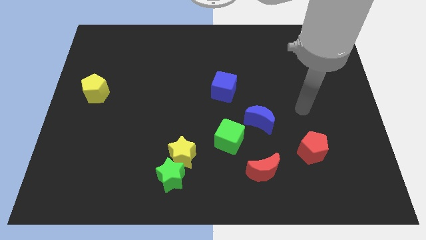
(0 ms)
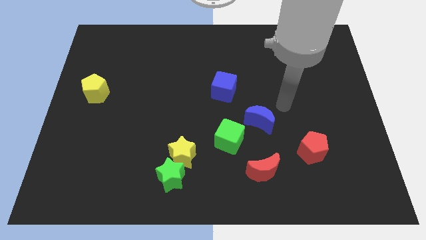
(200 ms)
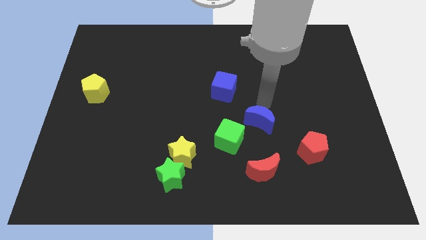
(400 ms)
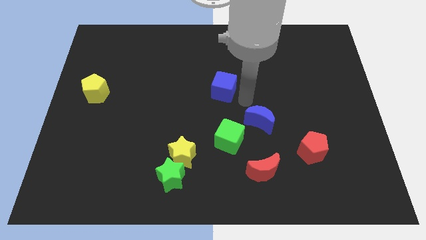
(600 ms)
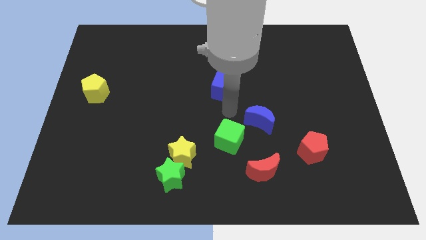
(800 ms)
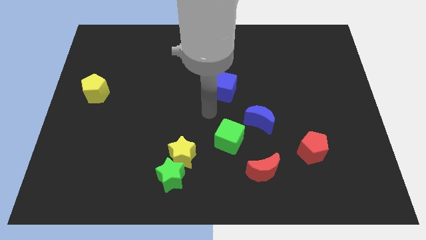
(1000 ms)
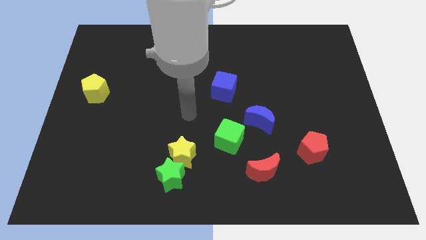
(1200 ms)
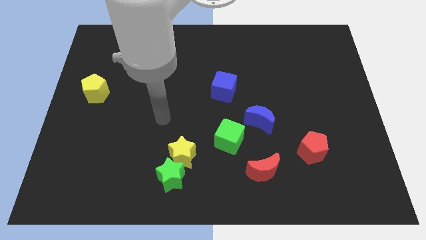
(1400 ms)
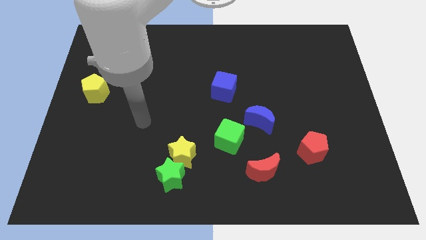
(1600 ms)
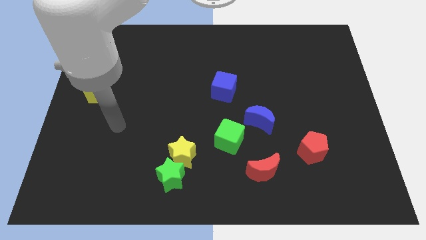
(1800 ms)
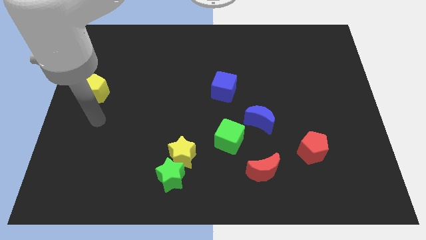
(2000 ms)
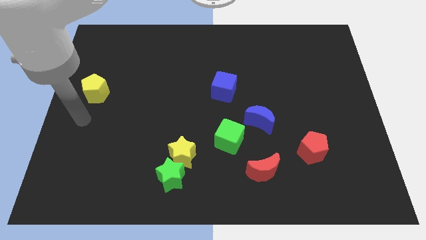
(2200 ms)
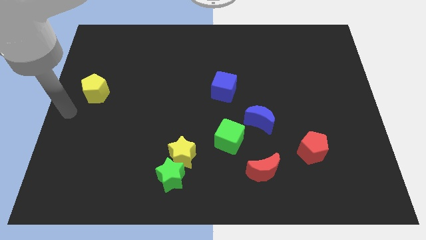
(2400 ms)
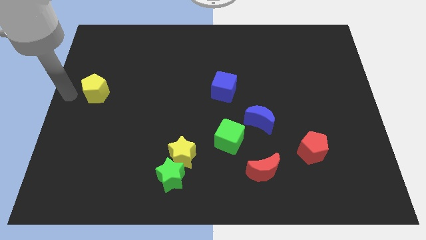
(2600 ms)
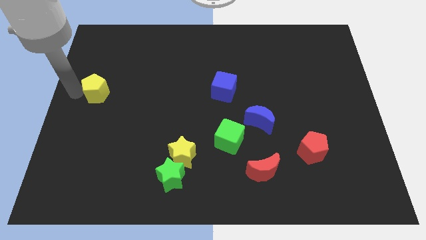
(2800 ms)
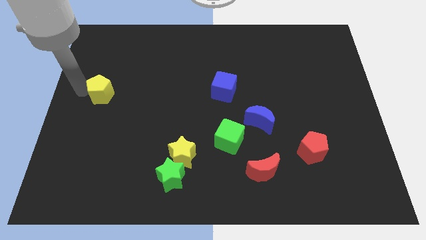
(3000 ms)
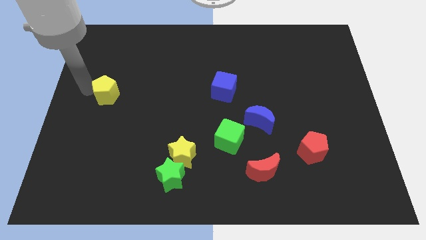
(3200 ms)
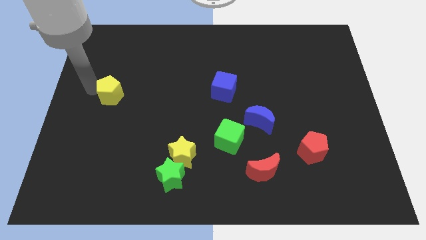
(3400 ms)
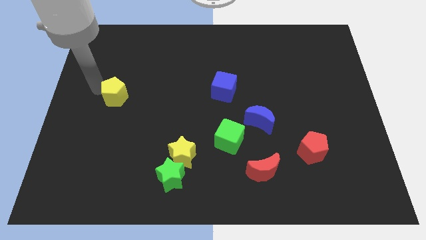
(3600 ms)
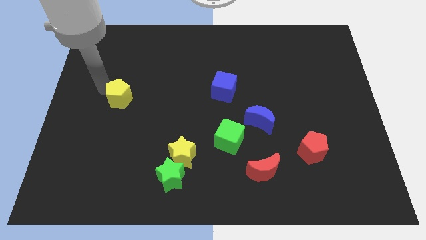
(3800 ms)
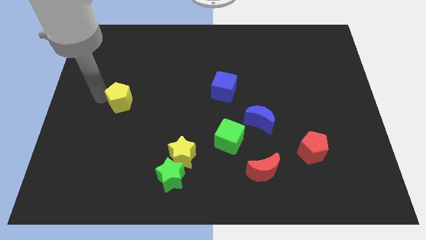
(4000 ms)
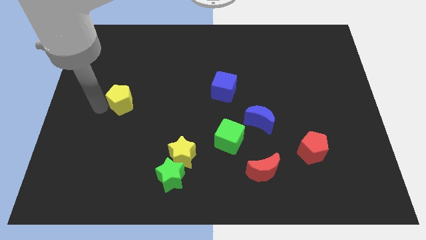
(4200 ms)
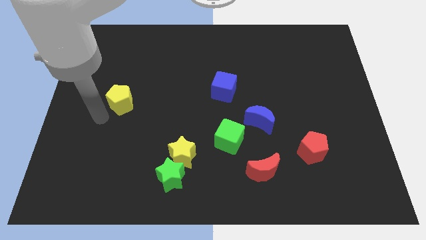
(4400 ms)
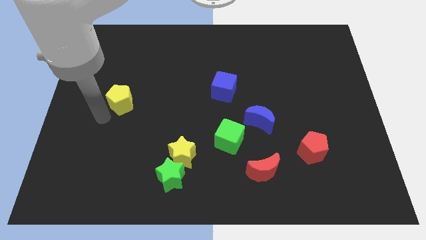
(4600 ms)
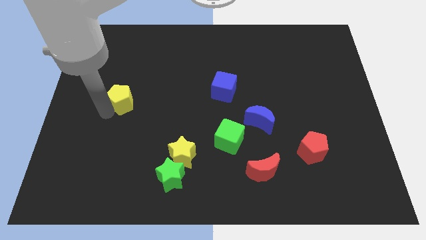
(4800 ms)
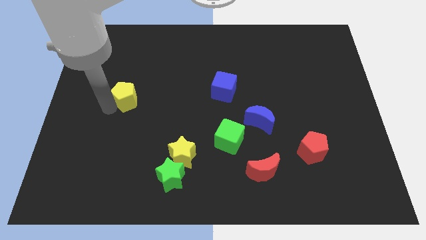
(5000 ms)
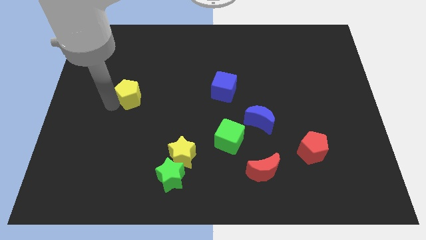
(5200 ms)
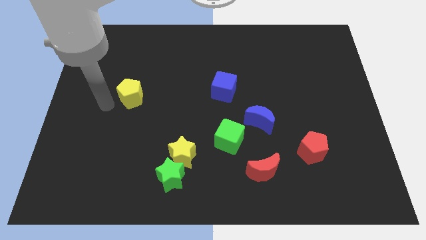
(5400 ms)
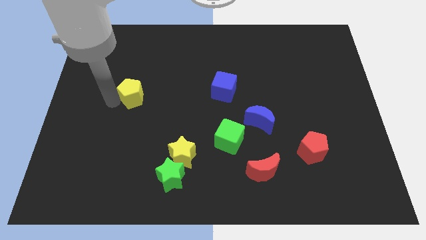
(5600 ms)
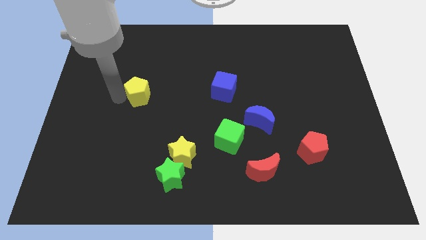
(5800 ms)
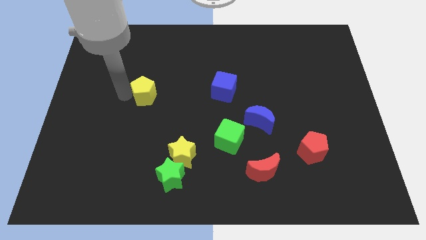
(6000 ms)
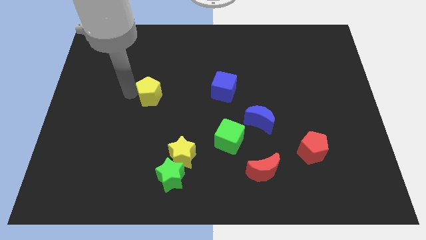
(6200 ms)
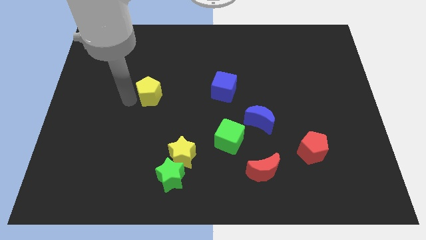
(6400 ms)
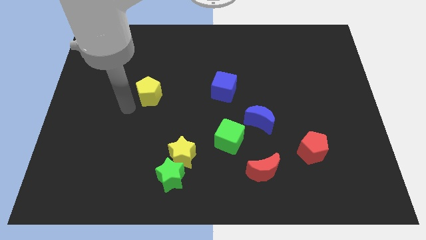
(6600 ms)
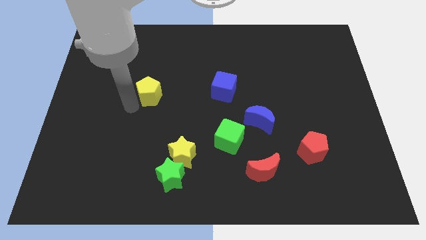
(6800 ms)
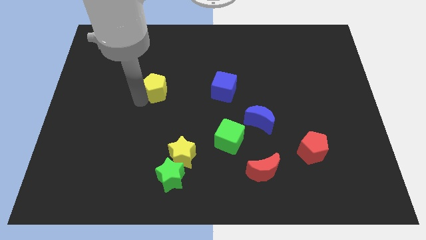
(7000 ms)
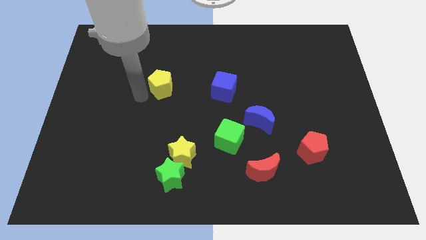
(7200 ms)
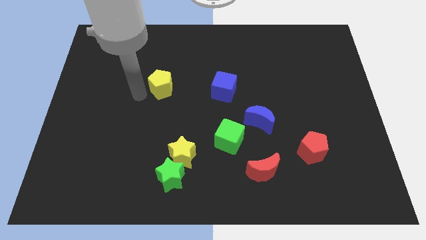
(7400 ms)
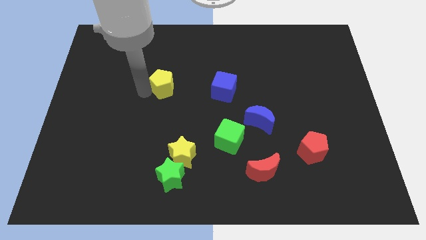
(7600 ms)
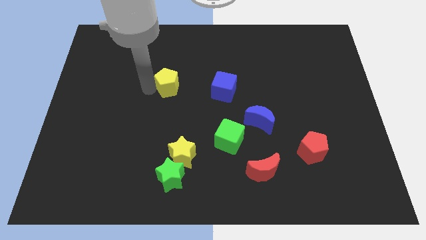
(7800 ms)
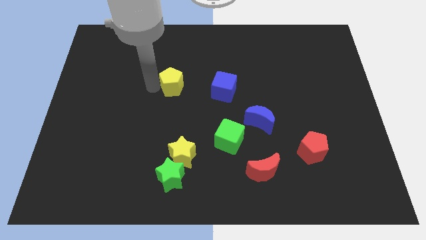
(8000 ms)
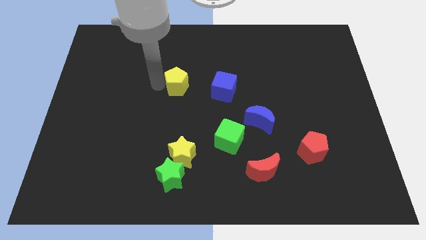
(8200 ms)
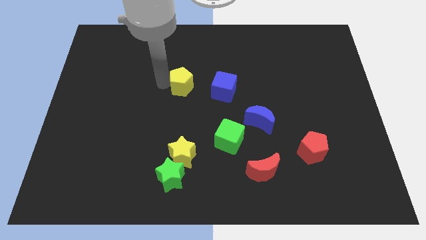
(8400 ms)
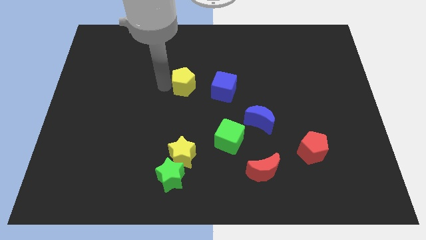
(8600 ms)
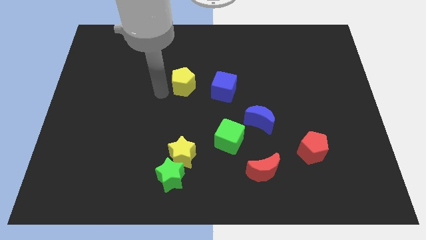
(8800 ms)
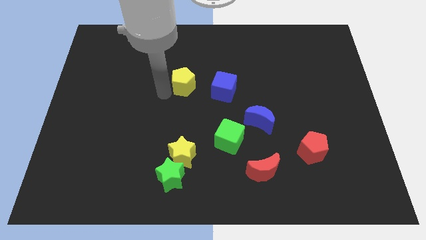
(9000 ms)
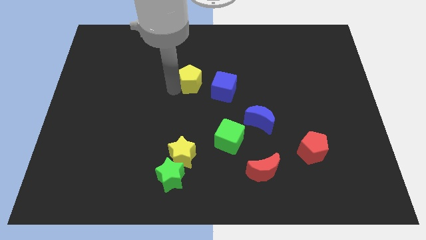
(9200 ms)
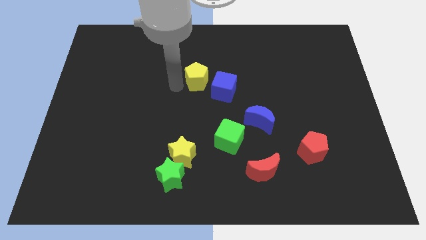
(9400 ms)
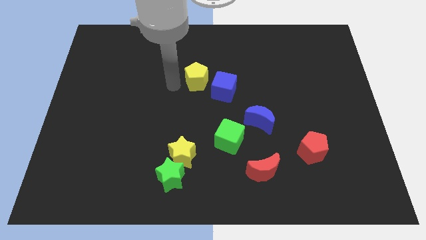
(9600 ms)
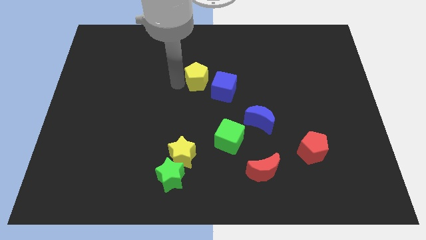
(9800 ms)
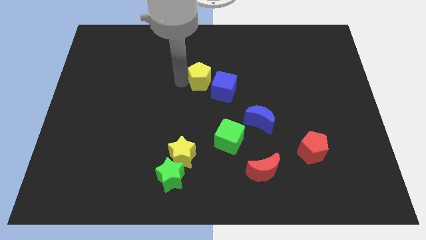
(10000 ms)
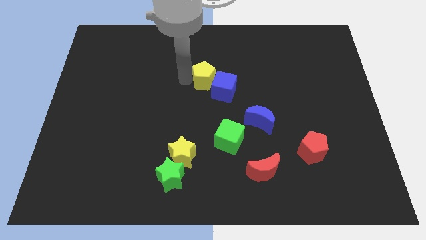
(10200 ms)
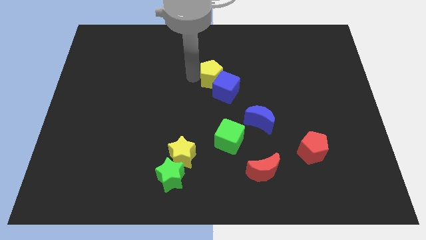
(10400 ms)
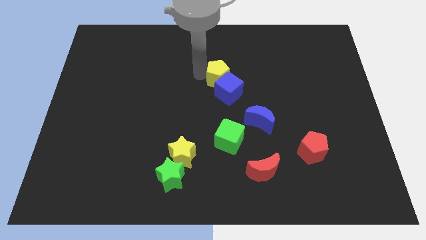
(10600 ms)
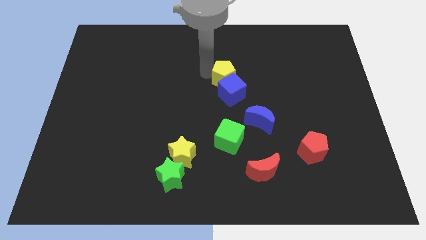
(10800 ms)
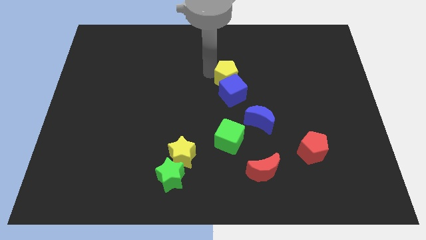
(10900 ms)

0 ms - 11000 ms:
slide the yellow pentagon to the top right side of the blue cube
